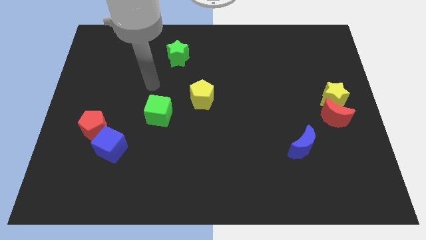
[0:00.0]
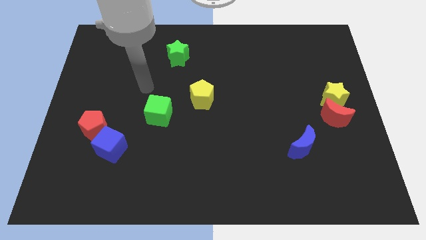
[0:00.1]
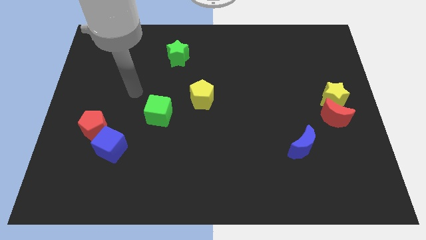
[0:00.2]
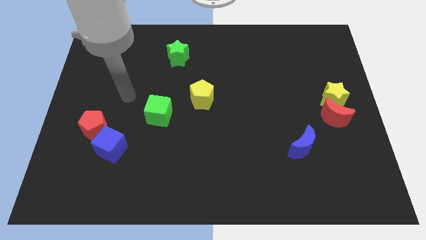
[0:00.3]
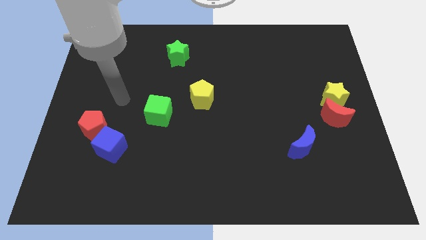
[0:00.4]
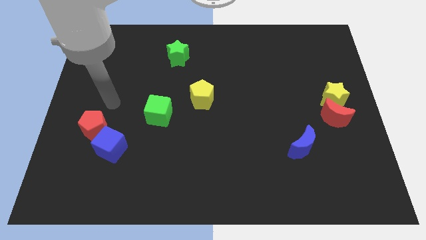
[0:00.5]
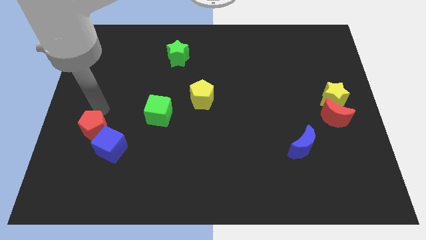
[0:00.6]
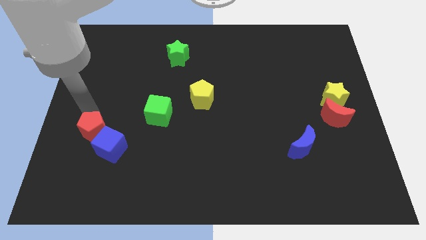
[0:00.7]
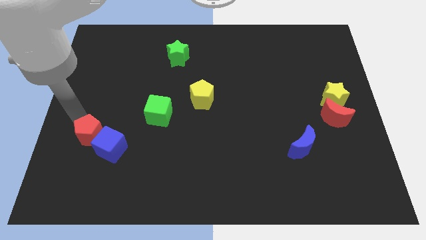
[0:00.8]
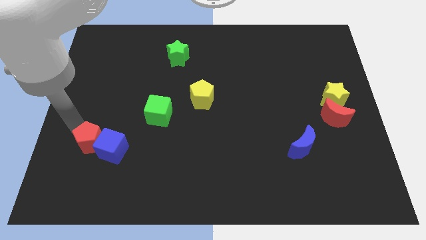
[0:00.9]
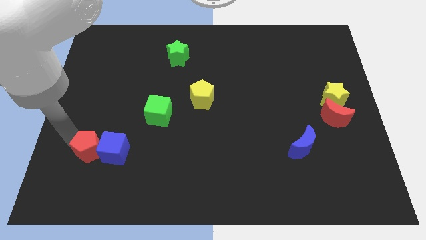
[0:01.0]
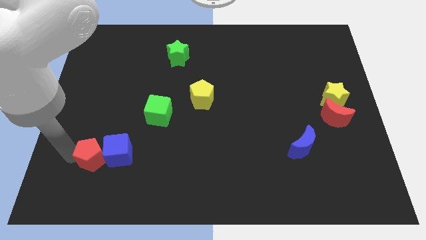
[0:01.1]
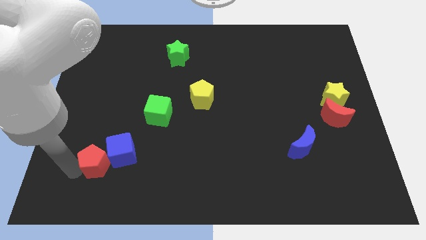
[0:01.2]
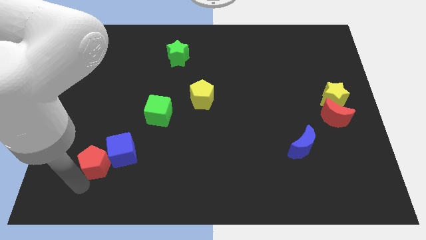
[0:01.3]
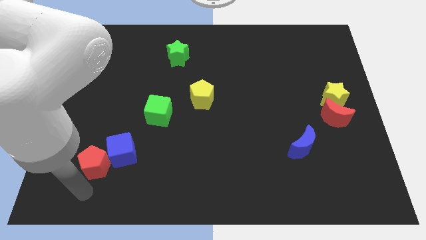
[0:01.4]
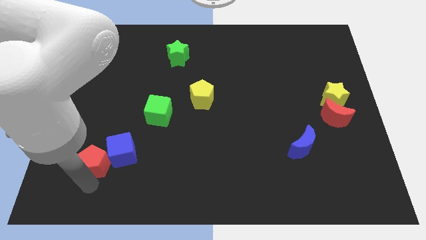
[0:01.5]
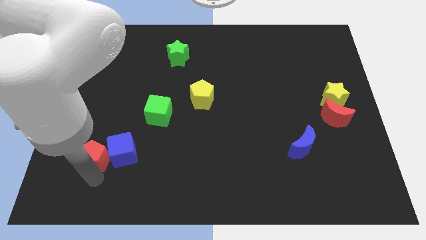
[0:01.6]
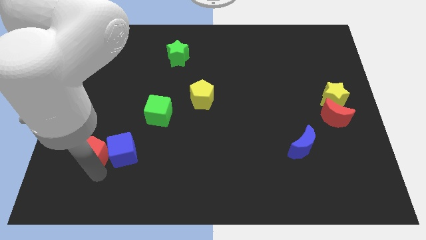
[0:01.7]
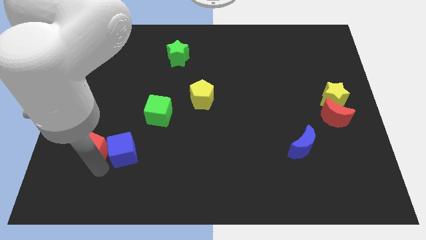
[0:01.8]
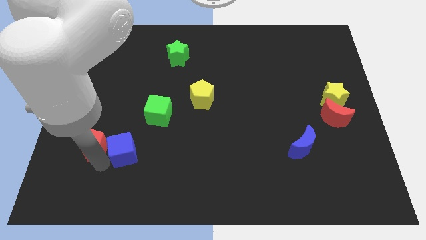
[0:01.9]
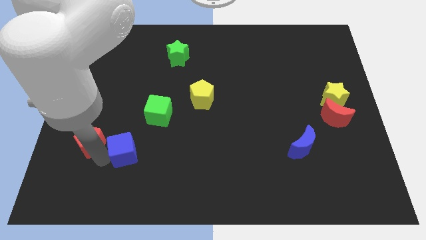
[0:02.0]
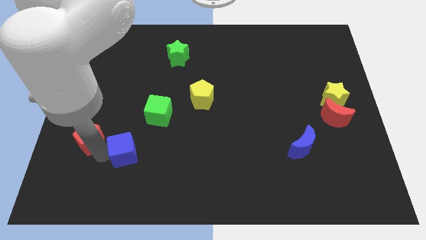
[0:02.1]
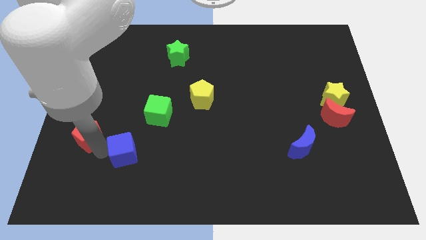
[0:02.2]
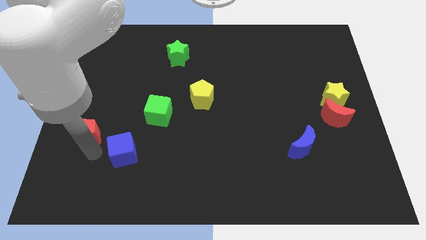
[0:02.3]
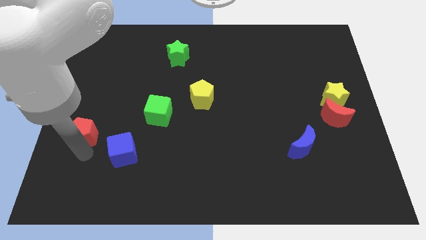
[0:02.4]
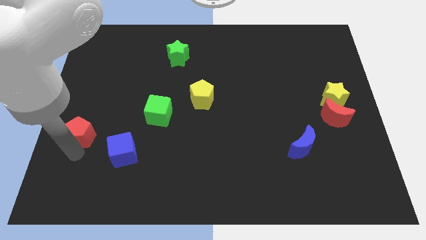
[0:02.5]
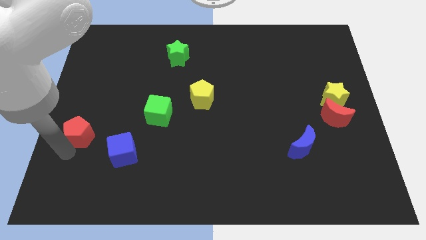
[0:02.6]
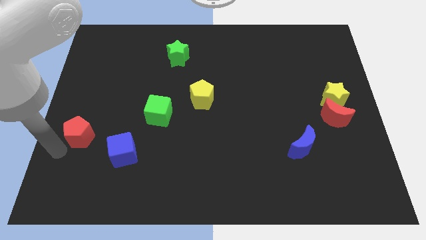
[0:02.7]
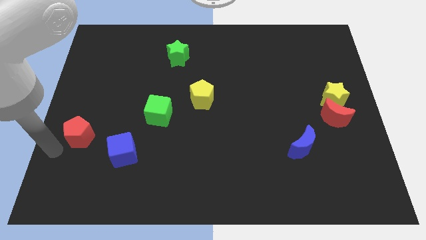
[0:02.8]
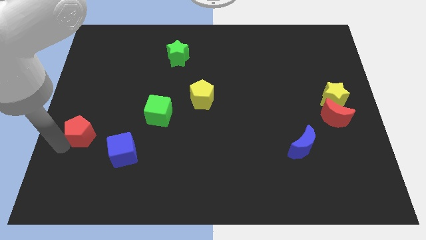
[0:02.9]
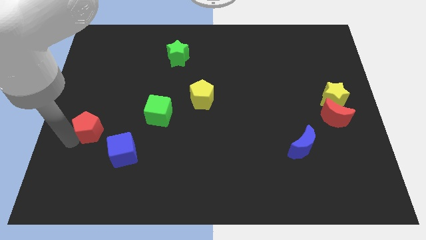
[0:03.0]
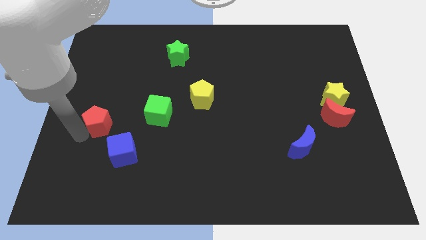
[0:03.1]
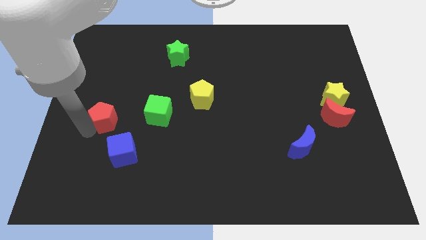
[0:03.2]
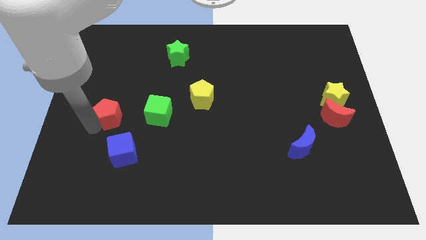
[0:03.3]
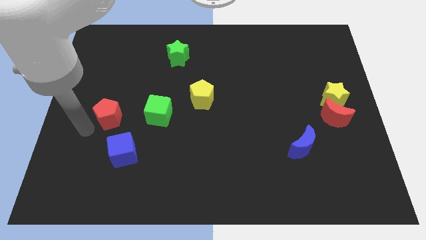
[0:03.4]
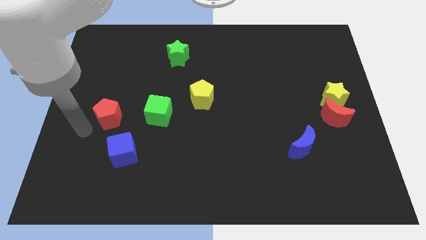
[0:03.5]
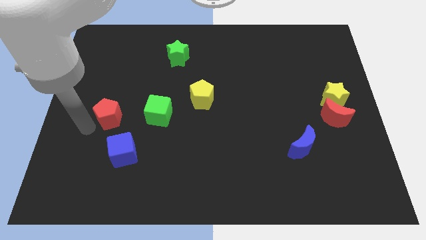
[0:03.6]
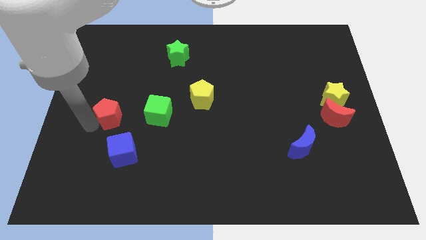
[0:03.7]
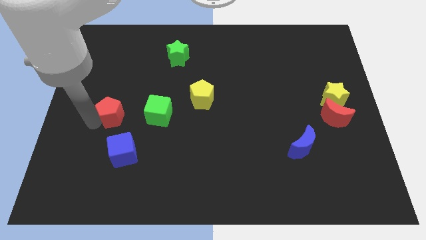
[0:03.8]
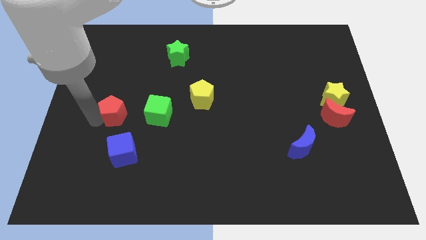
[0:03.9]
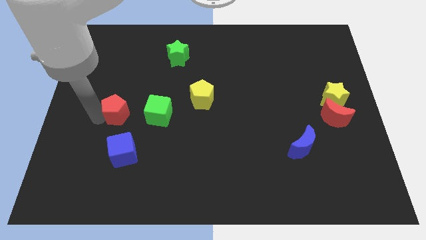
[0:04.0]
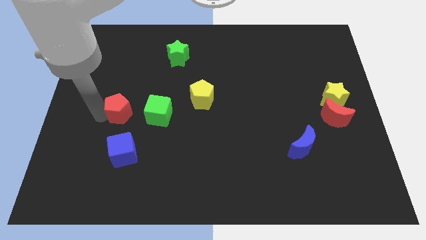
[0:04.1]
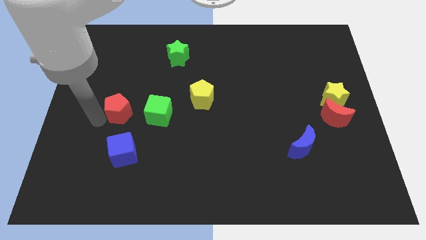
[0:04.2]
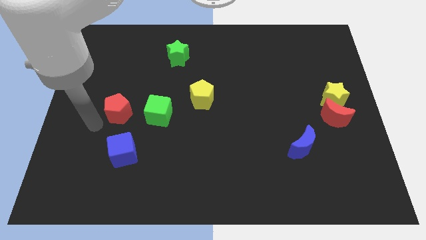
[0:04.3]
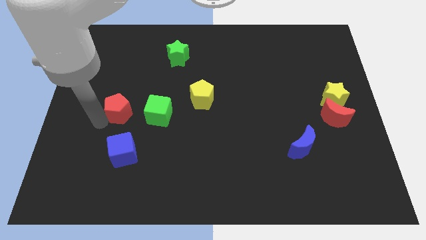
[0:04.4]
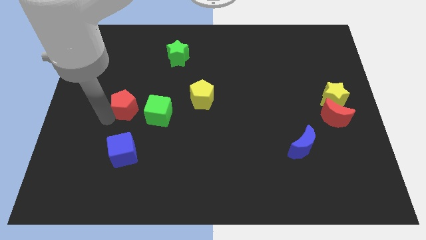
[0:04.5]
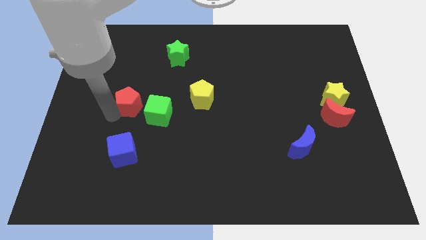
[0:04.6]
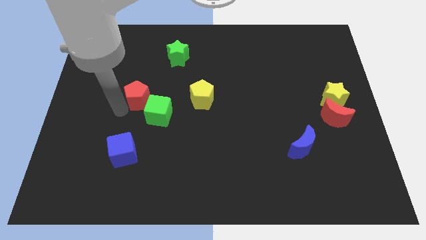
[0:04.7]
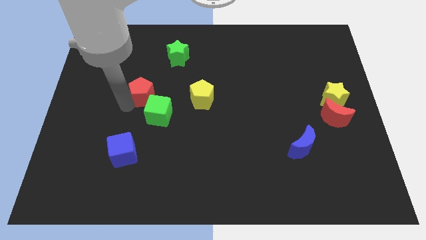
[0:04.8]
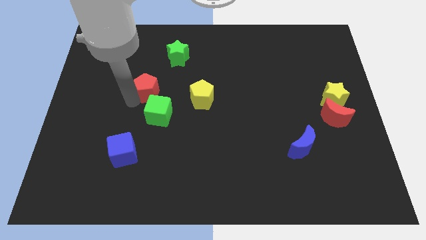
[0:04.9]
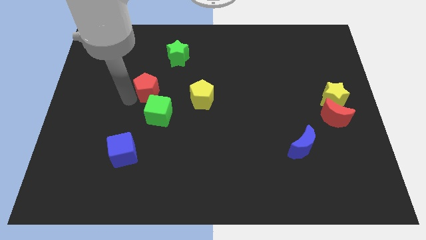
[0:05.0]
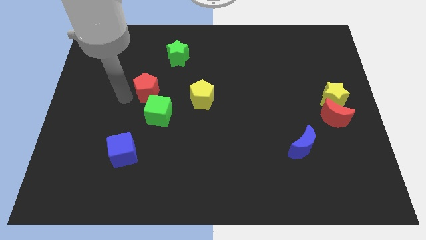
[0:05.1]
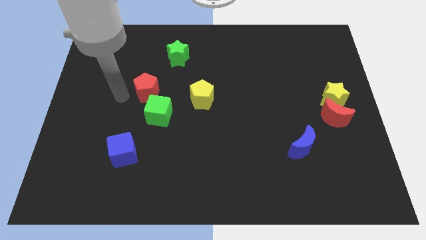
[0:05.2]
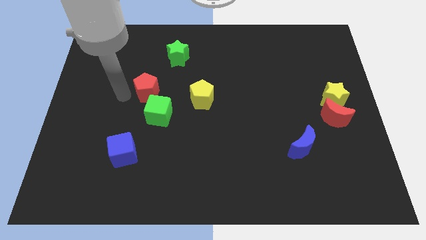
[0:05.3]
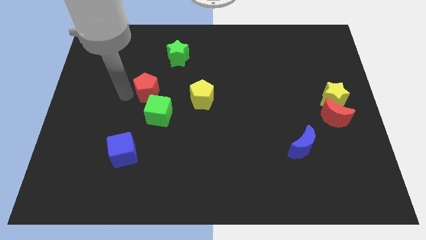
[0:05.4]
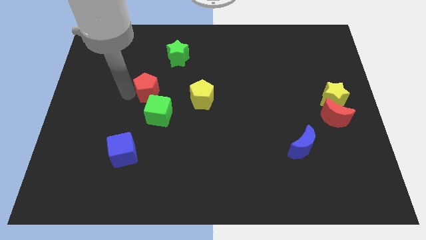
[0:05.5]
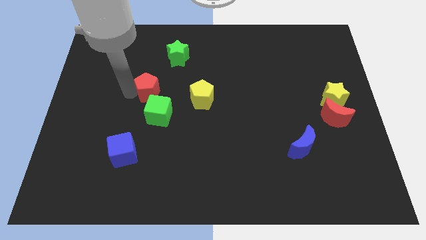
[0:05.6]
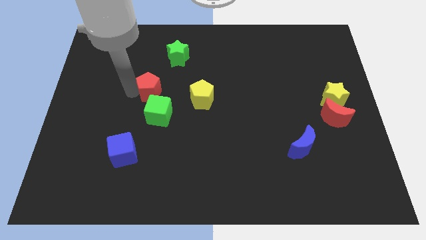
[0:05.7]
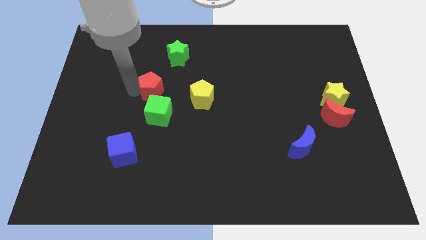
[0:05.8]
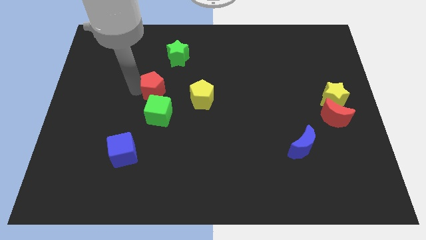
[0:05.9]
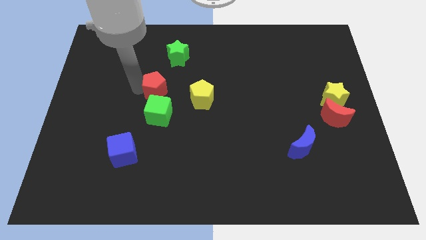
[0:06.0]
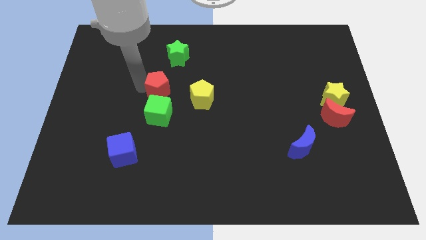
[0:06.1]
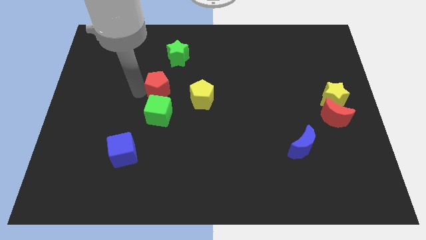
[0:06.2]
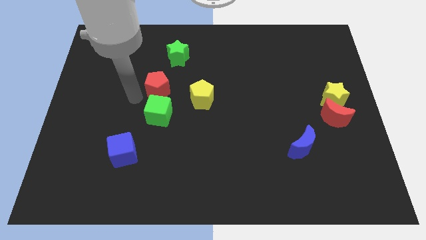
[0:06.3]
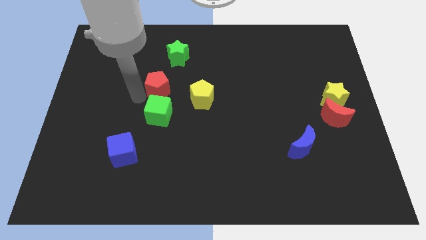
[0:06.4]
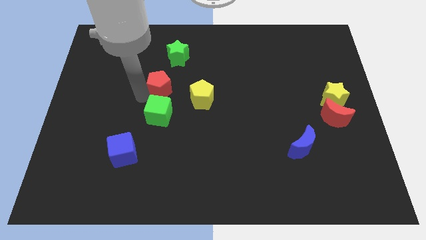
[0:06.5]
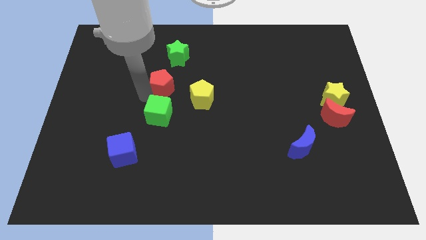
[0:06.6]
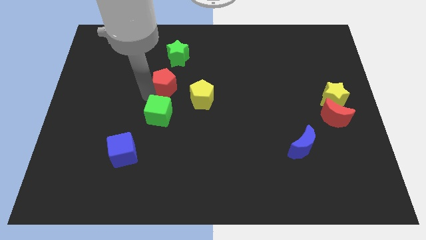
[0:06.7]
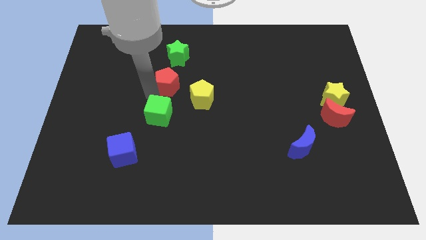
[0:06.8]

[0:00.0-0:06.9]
slide the red pentagon upwards and to the right diagonally
